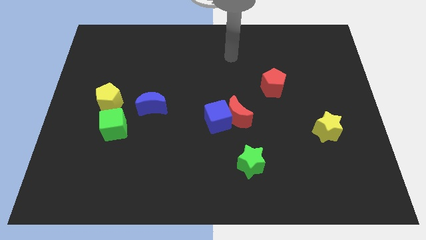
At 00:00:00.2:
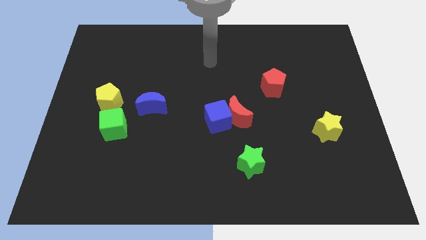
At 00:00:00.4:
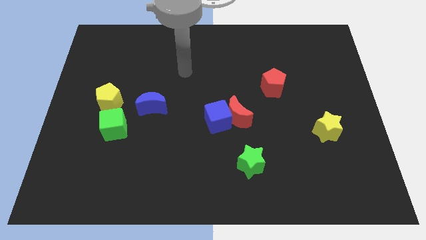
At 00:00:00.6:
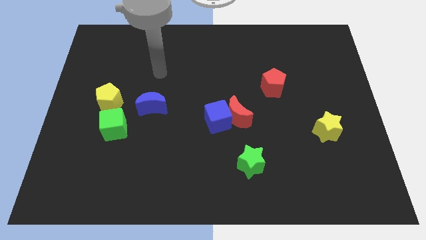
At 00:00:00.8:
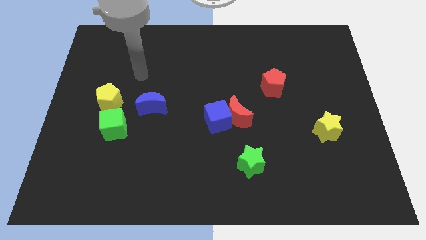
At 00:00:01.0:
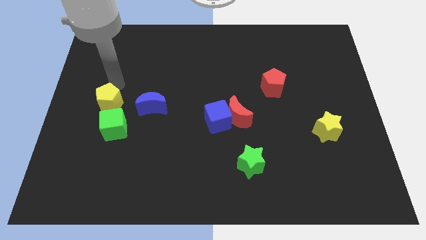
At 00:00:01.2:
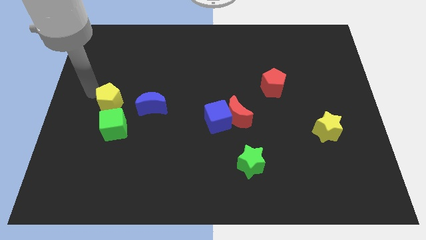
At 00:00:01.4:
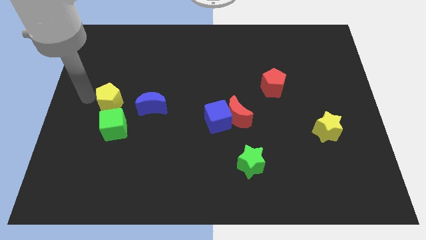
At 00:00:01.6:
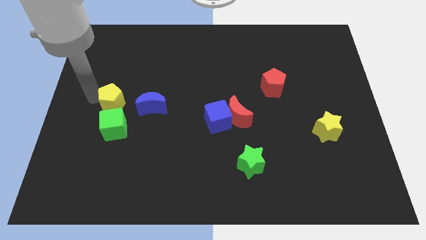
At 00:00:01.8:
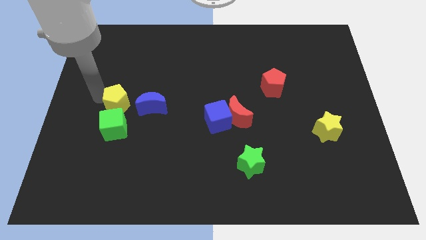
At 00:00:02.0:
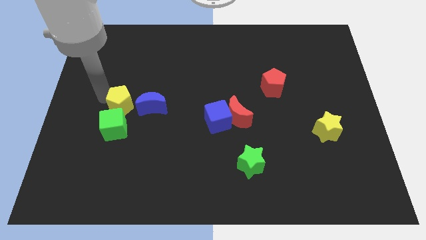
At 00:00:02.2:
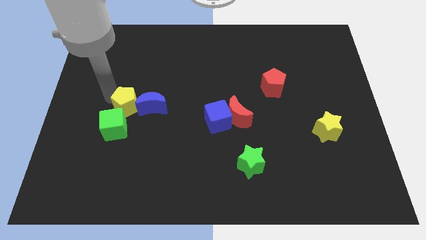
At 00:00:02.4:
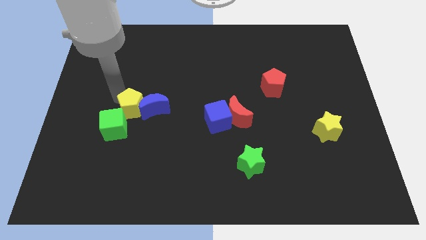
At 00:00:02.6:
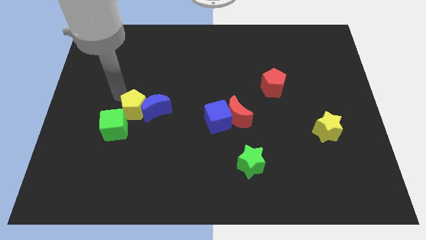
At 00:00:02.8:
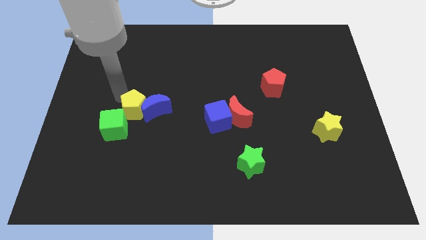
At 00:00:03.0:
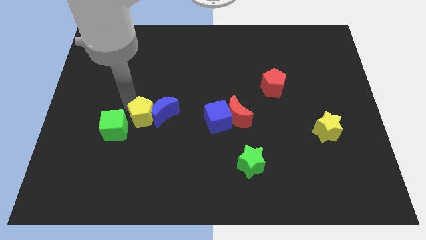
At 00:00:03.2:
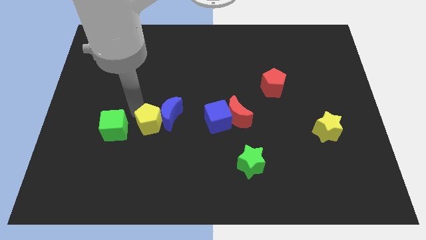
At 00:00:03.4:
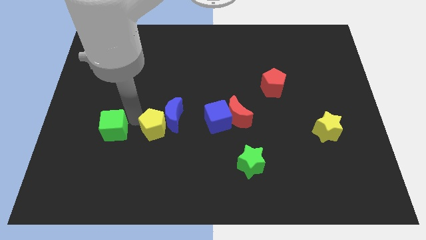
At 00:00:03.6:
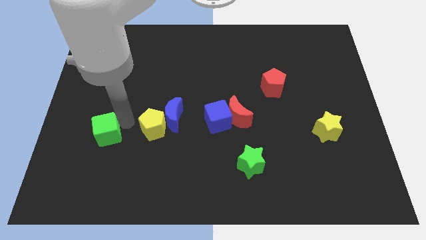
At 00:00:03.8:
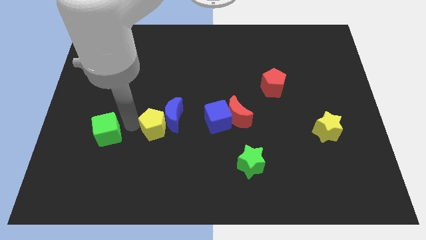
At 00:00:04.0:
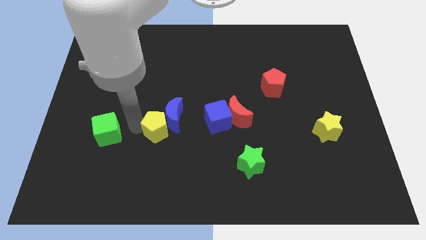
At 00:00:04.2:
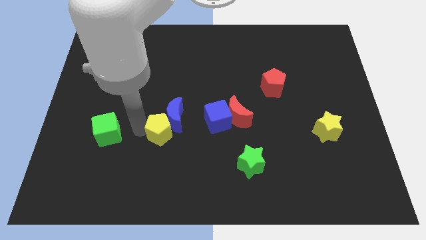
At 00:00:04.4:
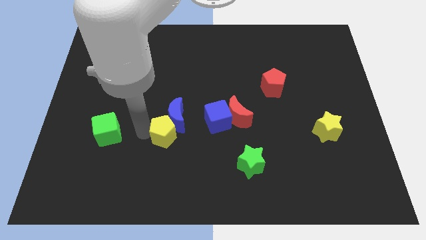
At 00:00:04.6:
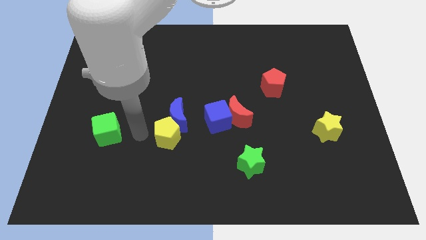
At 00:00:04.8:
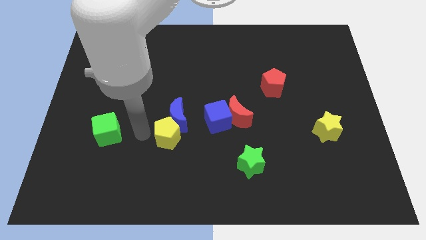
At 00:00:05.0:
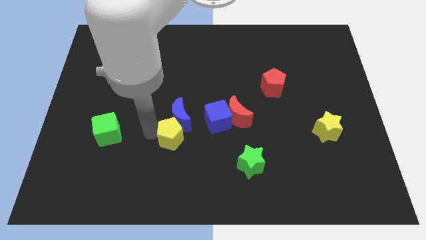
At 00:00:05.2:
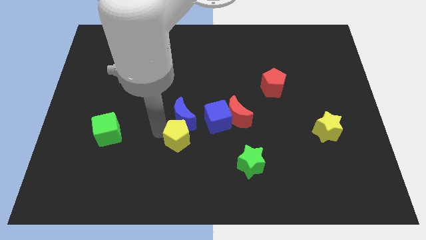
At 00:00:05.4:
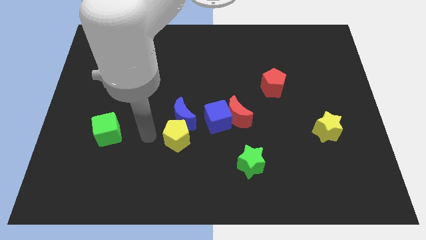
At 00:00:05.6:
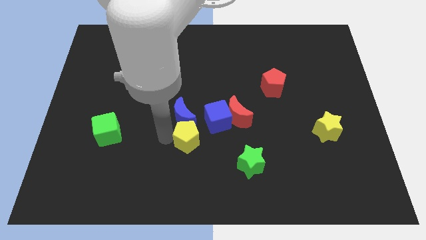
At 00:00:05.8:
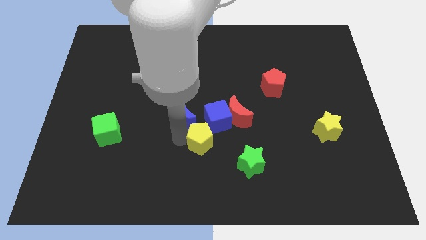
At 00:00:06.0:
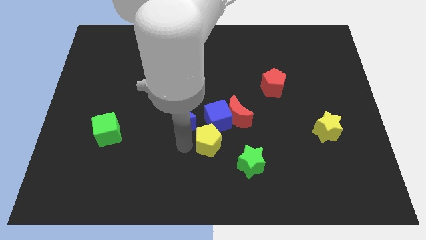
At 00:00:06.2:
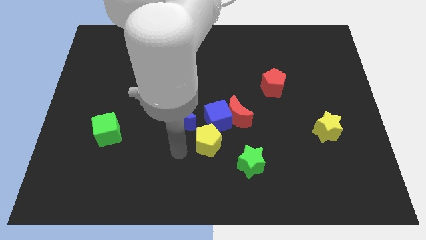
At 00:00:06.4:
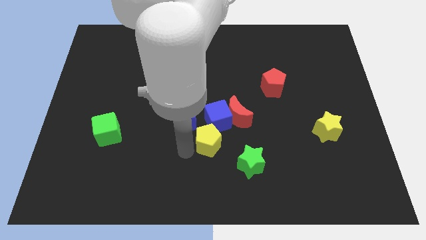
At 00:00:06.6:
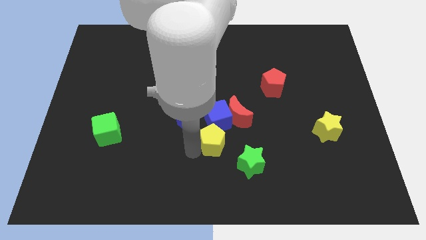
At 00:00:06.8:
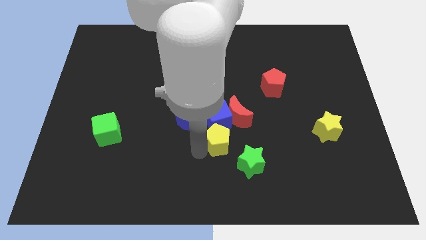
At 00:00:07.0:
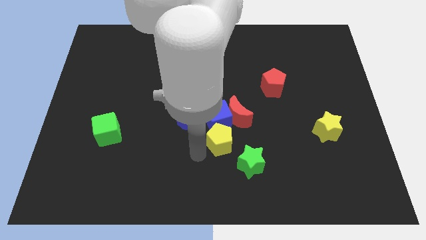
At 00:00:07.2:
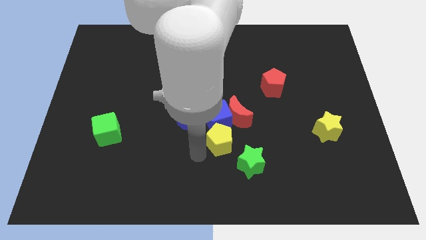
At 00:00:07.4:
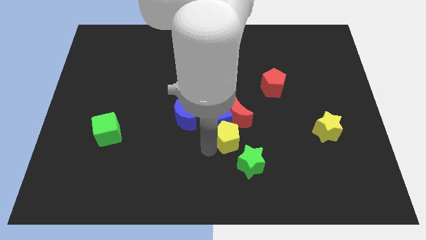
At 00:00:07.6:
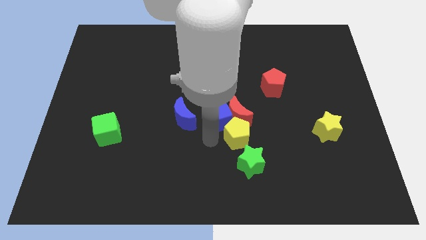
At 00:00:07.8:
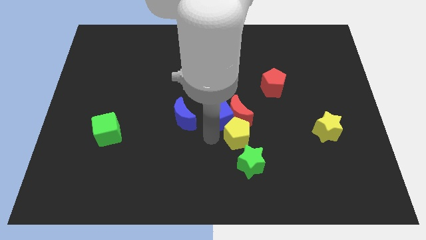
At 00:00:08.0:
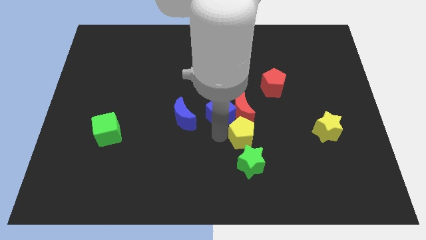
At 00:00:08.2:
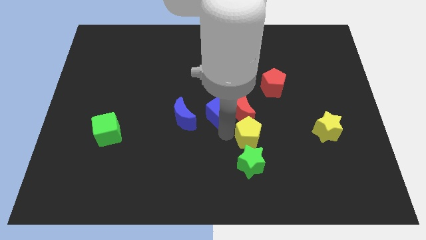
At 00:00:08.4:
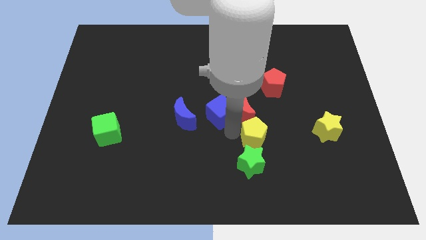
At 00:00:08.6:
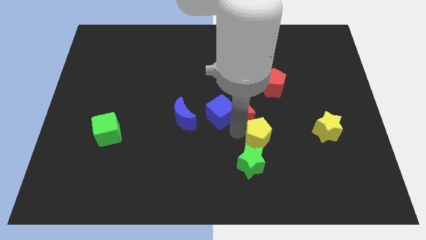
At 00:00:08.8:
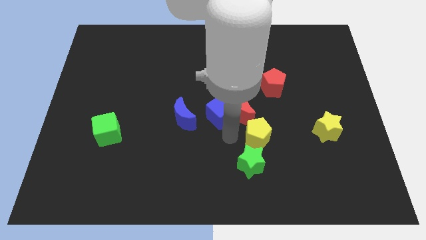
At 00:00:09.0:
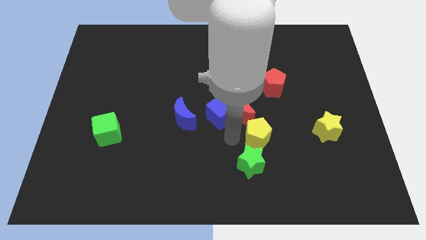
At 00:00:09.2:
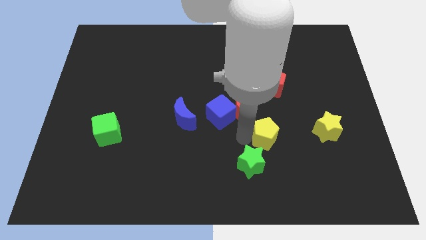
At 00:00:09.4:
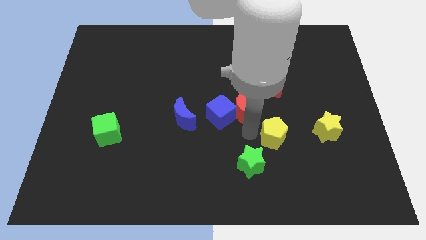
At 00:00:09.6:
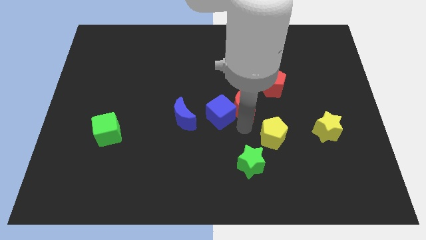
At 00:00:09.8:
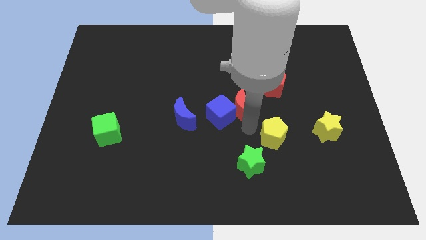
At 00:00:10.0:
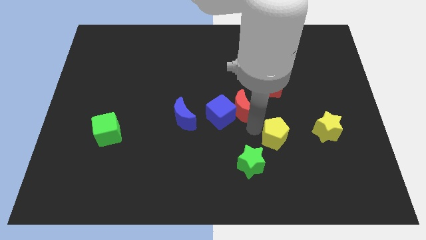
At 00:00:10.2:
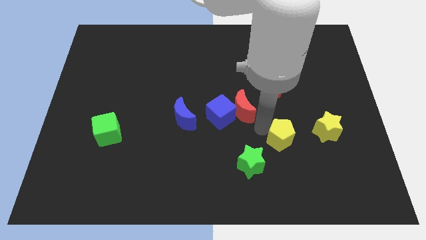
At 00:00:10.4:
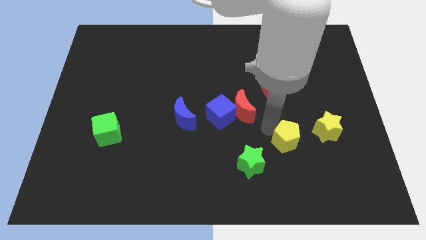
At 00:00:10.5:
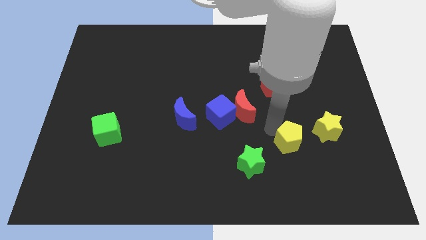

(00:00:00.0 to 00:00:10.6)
put the yellow pentagon to the bottom left of the yellow star

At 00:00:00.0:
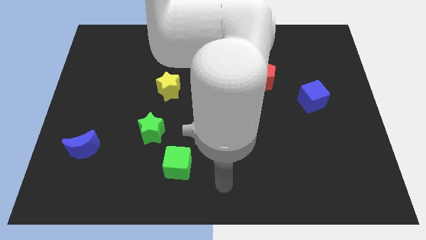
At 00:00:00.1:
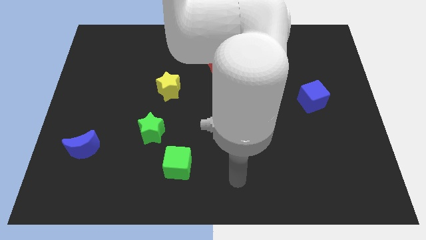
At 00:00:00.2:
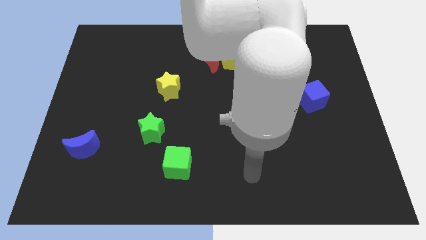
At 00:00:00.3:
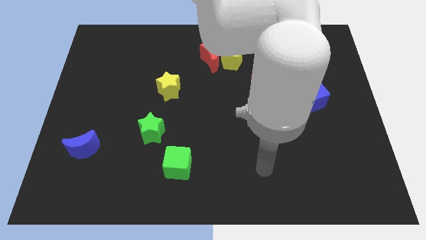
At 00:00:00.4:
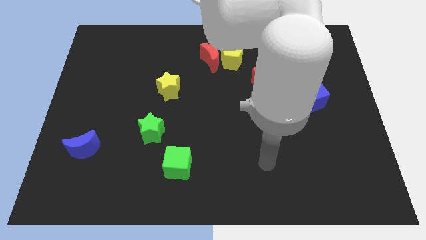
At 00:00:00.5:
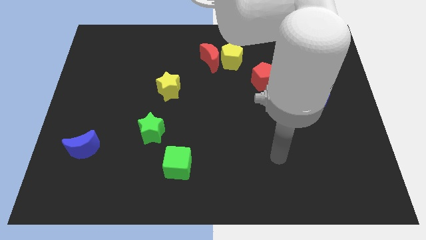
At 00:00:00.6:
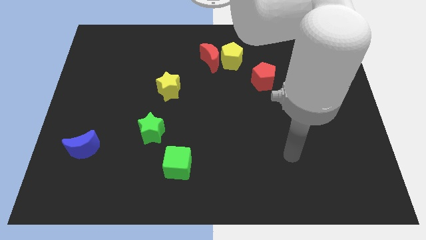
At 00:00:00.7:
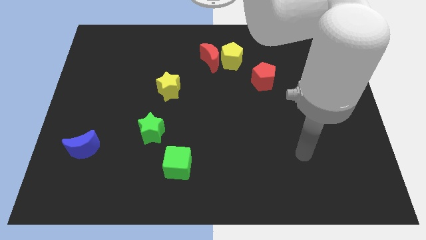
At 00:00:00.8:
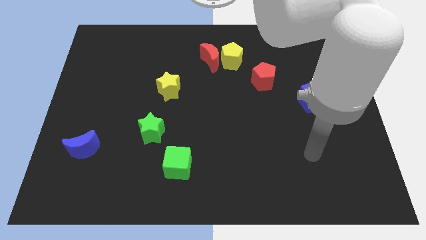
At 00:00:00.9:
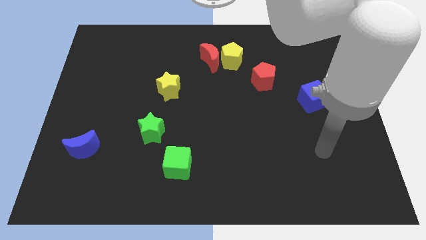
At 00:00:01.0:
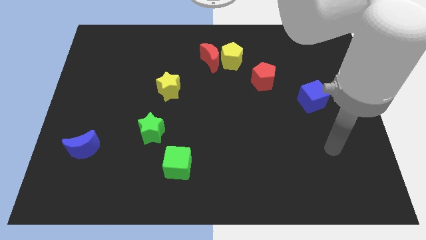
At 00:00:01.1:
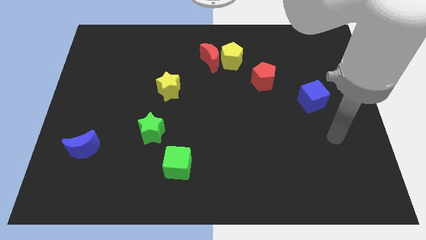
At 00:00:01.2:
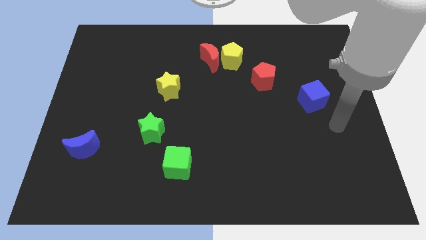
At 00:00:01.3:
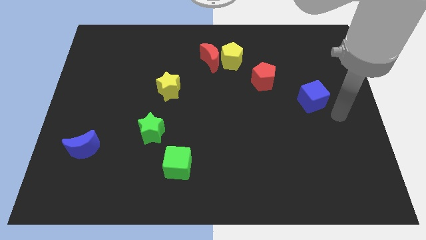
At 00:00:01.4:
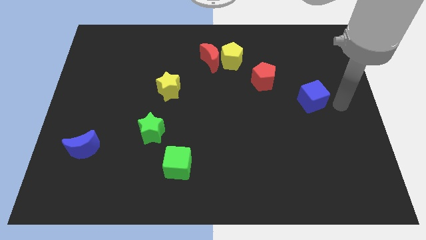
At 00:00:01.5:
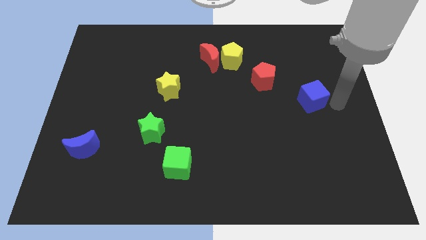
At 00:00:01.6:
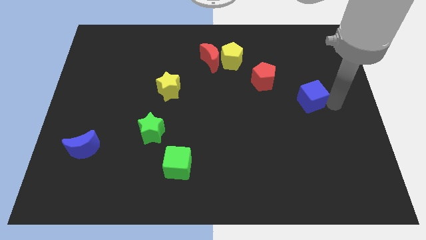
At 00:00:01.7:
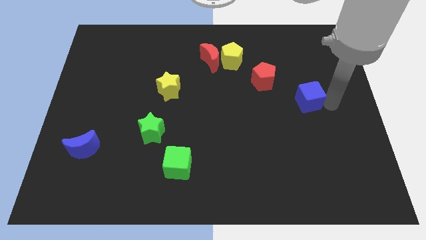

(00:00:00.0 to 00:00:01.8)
move the blue cube to the bottom right of the red pentagon
